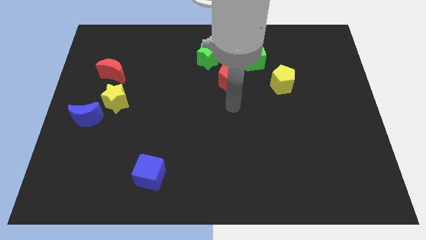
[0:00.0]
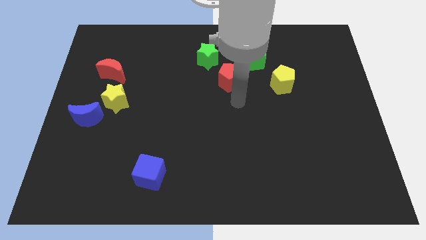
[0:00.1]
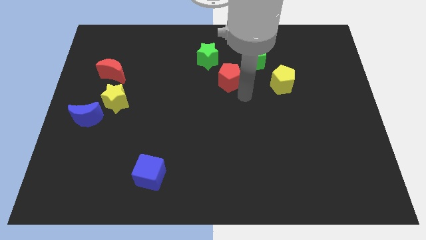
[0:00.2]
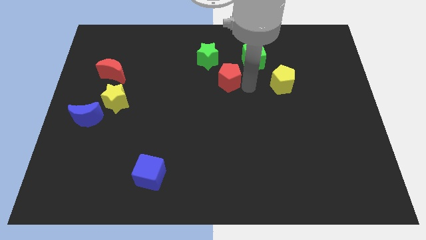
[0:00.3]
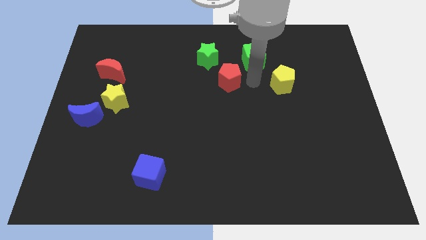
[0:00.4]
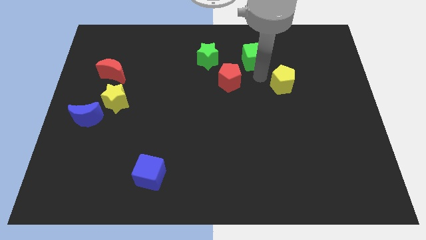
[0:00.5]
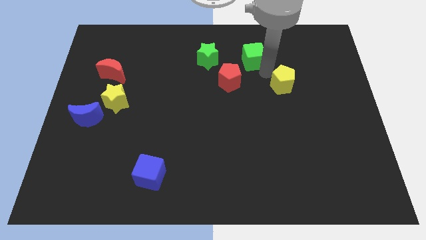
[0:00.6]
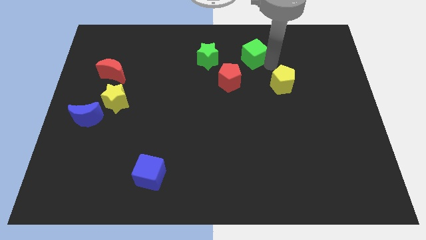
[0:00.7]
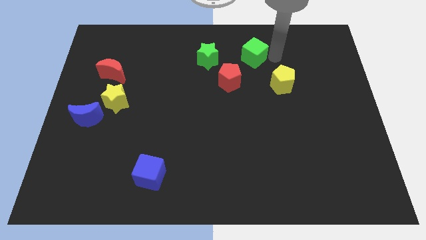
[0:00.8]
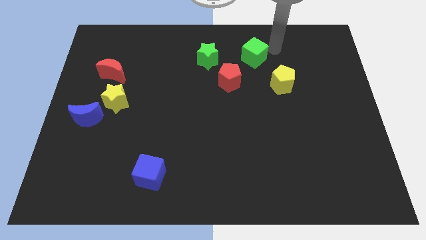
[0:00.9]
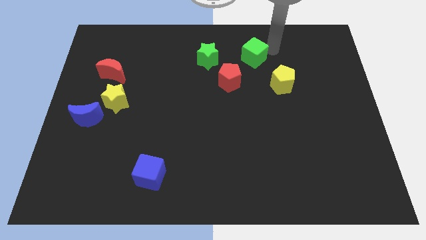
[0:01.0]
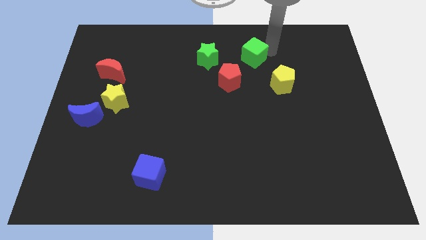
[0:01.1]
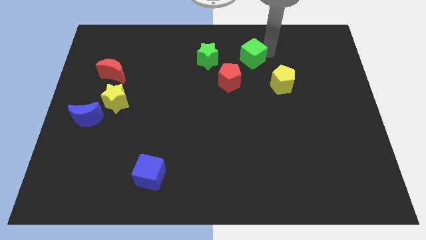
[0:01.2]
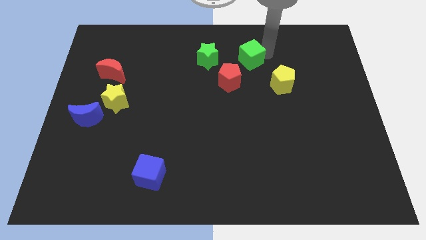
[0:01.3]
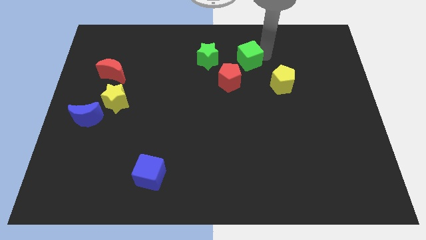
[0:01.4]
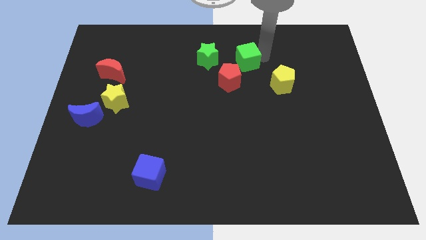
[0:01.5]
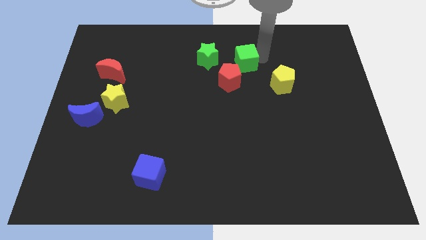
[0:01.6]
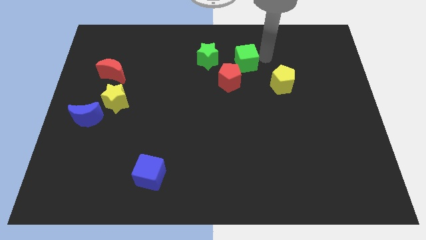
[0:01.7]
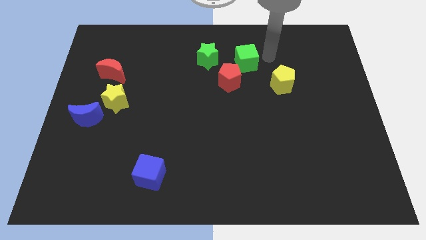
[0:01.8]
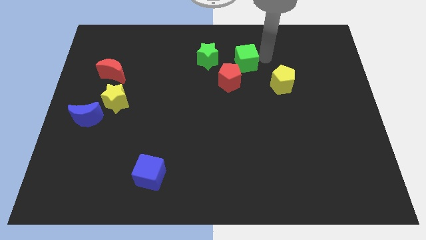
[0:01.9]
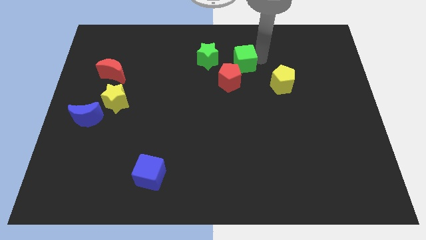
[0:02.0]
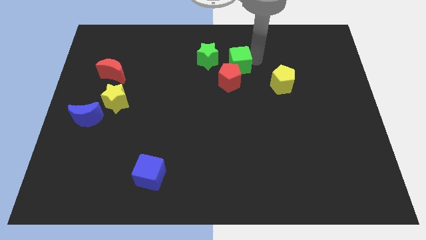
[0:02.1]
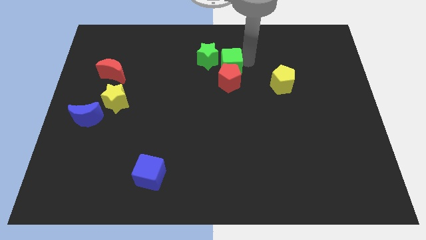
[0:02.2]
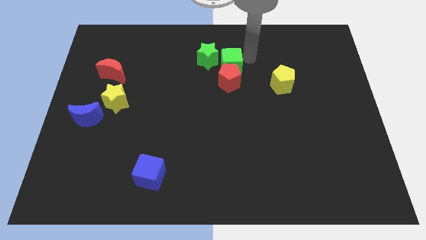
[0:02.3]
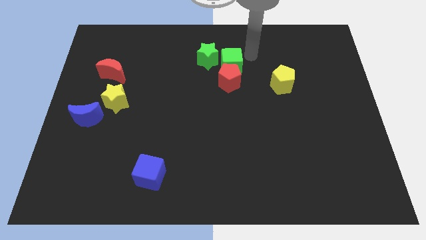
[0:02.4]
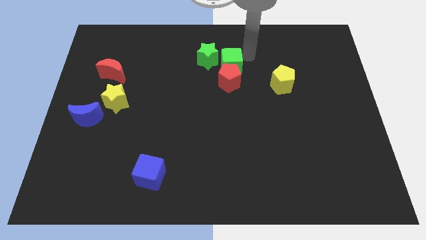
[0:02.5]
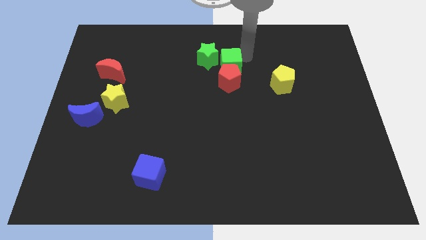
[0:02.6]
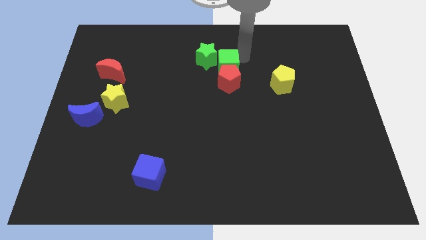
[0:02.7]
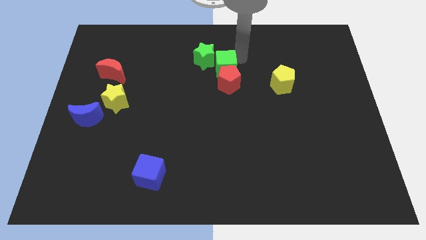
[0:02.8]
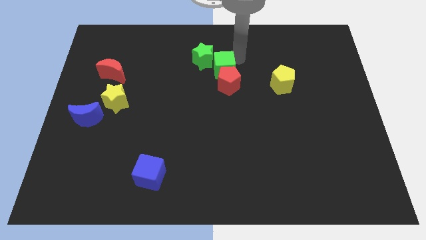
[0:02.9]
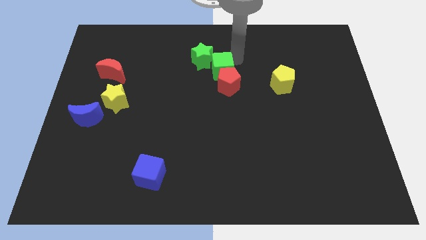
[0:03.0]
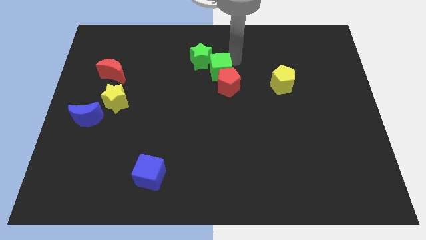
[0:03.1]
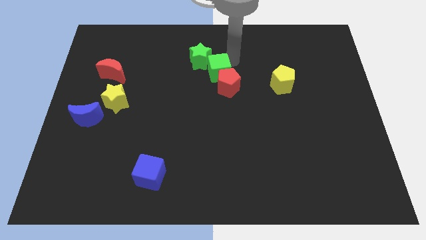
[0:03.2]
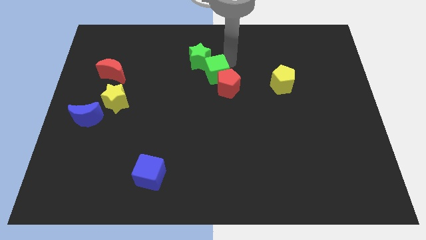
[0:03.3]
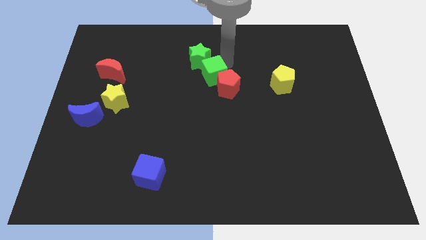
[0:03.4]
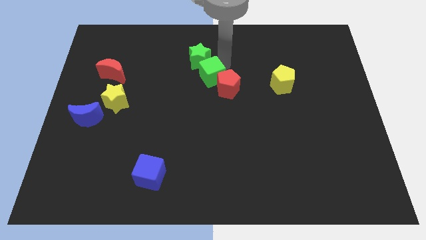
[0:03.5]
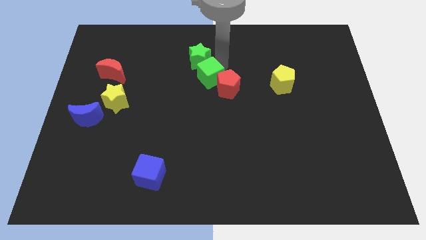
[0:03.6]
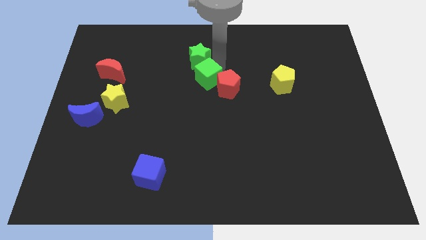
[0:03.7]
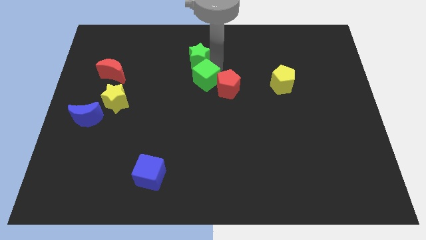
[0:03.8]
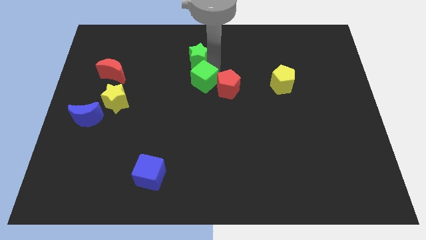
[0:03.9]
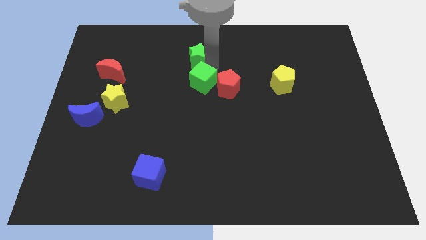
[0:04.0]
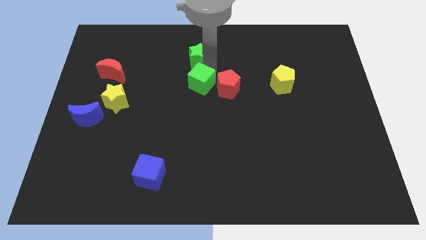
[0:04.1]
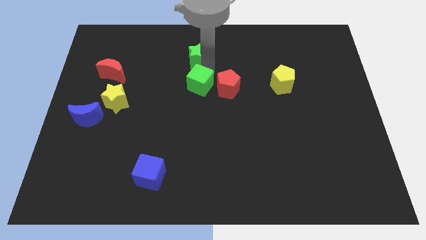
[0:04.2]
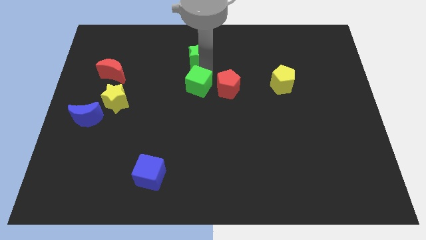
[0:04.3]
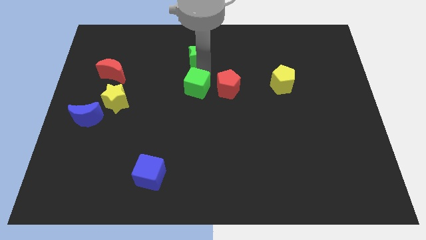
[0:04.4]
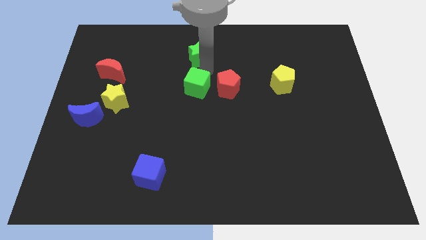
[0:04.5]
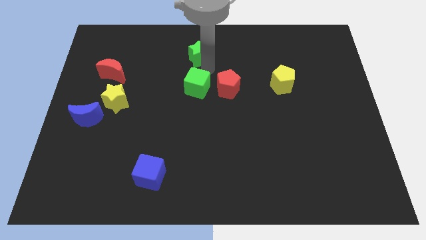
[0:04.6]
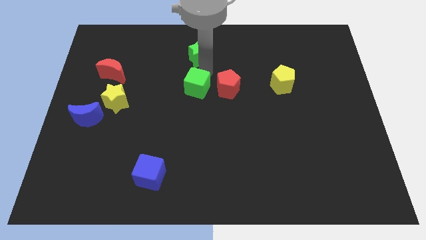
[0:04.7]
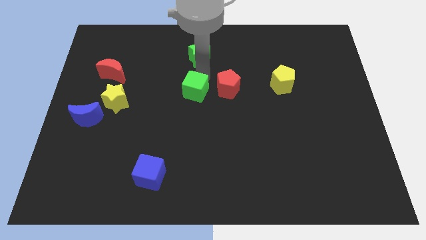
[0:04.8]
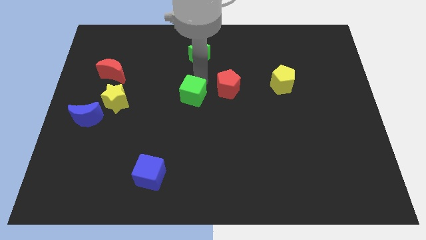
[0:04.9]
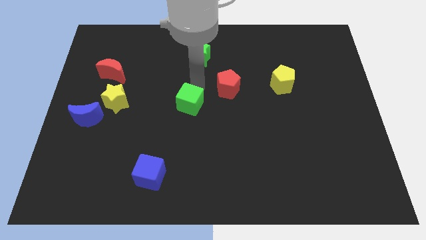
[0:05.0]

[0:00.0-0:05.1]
slide the green cube diagonally down and to the left

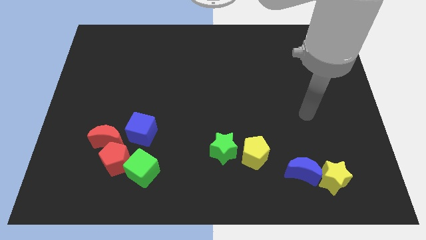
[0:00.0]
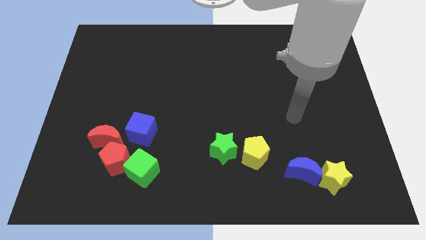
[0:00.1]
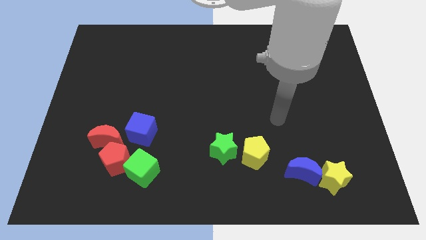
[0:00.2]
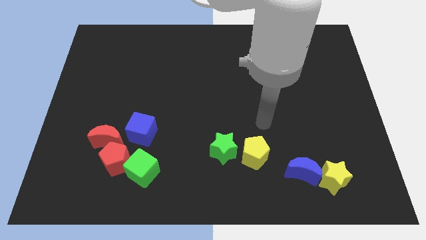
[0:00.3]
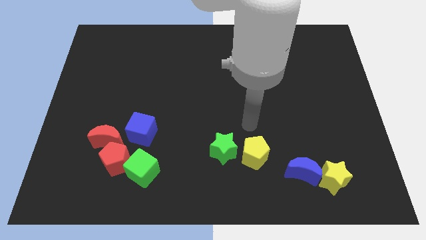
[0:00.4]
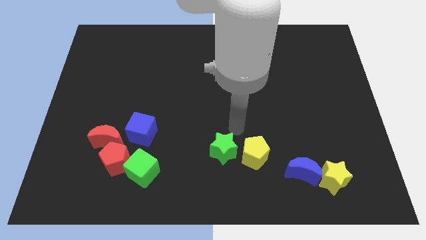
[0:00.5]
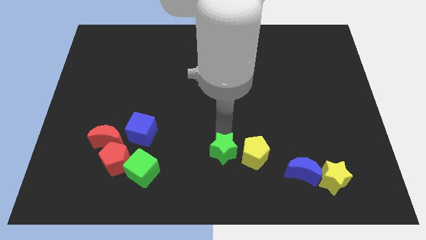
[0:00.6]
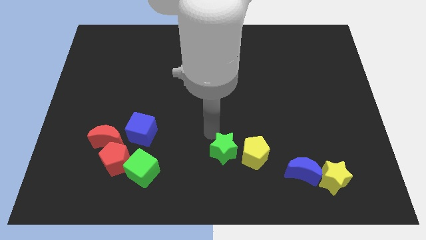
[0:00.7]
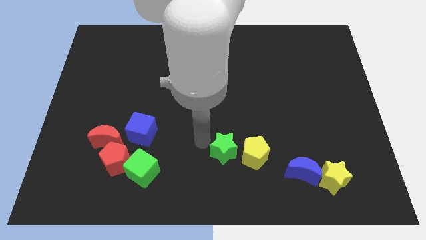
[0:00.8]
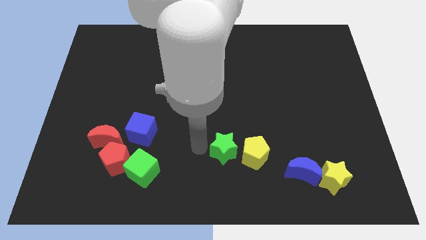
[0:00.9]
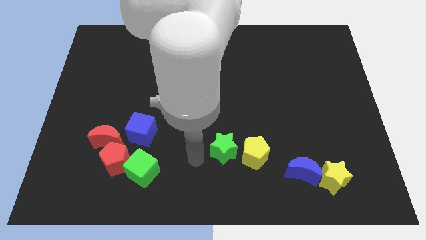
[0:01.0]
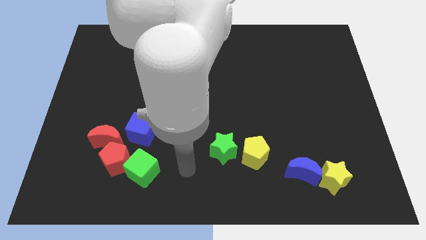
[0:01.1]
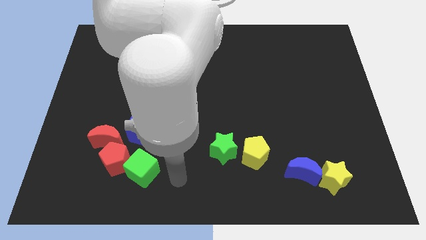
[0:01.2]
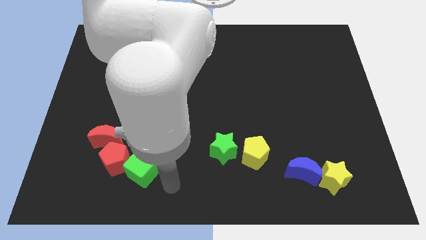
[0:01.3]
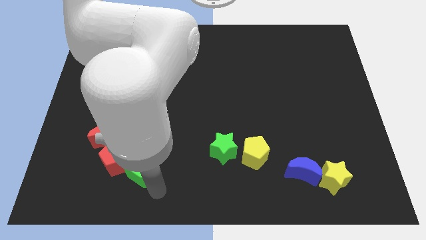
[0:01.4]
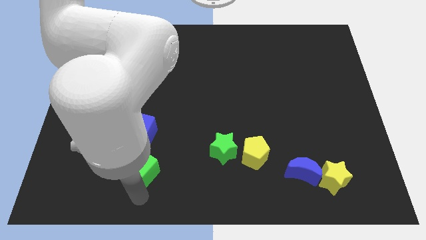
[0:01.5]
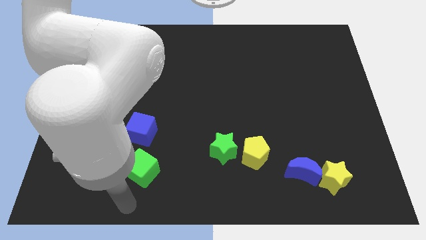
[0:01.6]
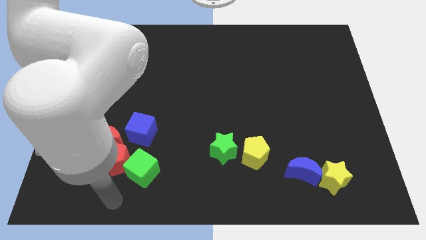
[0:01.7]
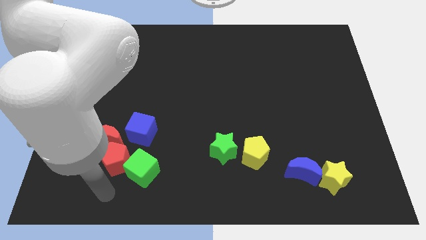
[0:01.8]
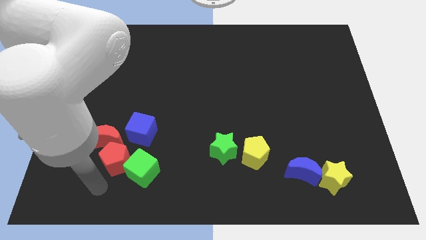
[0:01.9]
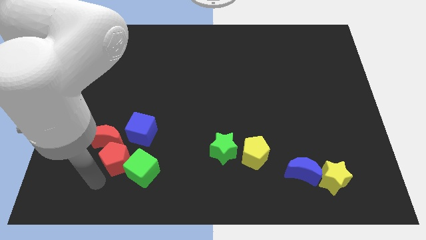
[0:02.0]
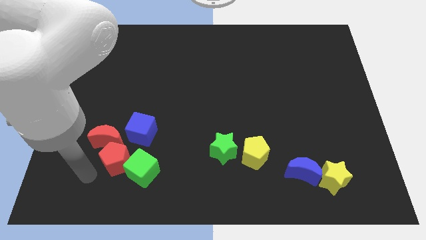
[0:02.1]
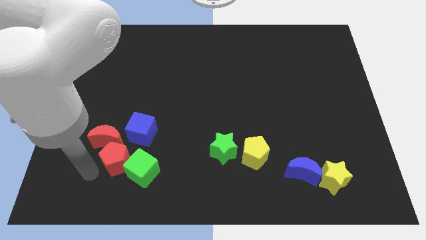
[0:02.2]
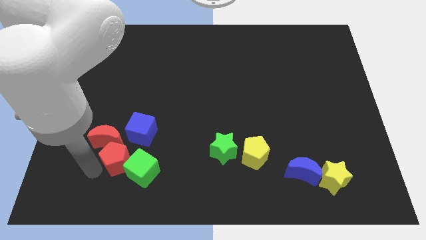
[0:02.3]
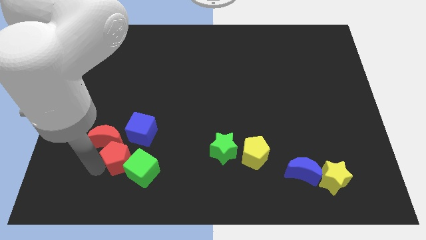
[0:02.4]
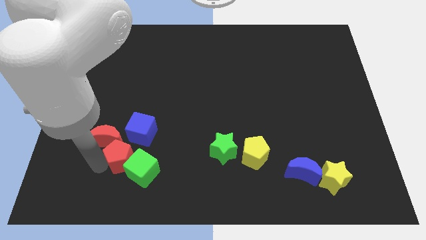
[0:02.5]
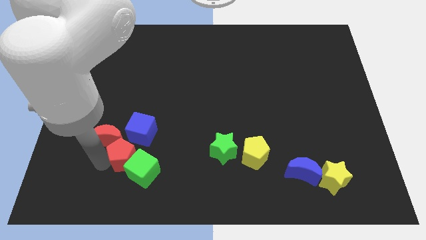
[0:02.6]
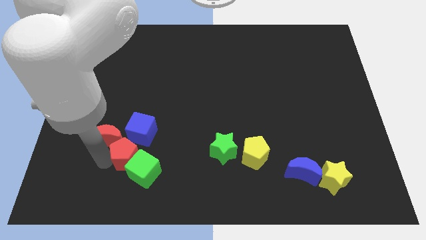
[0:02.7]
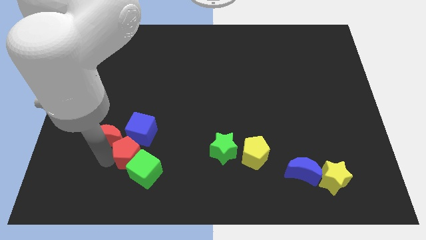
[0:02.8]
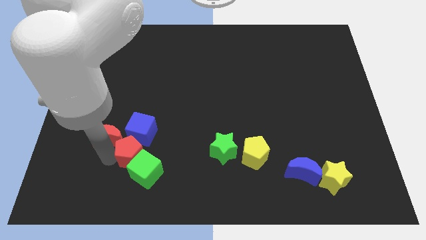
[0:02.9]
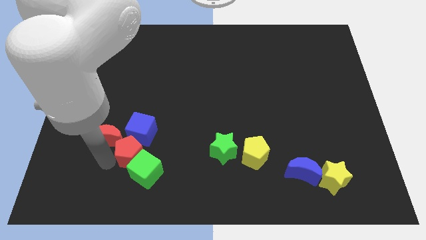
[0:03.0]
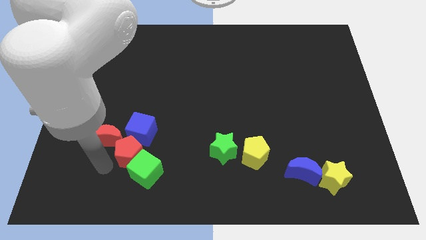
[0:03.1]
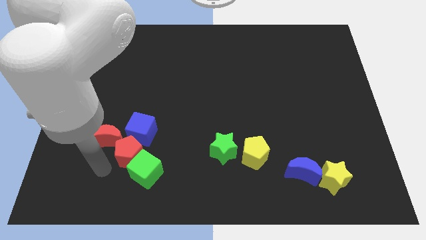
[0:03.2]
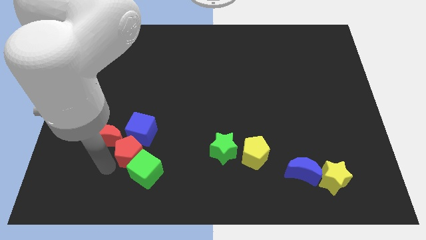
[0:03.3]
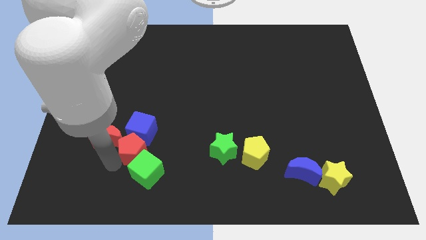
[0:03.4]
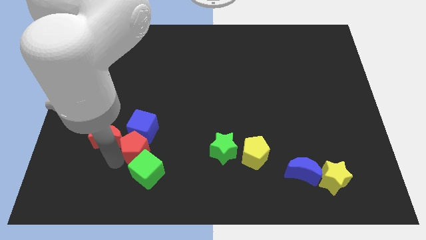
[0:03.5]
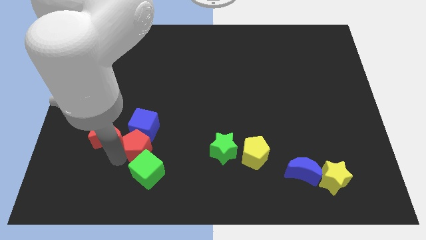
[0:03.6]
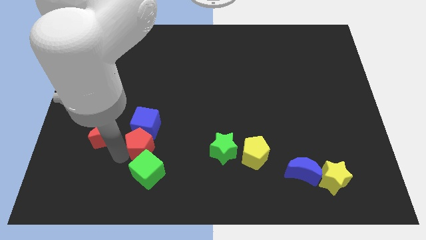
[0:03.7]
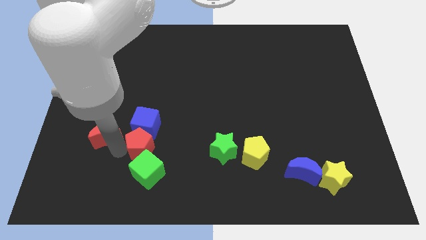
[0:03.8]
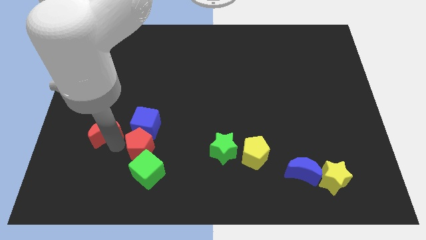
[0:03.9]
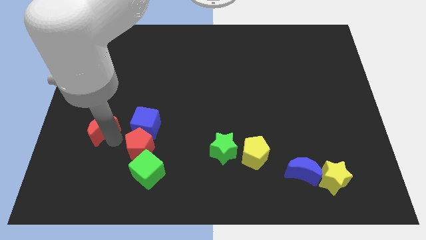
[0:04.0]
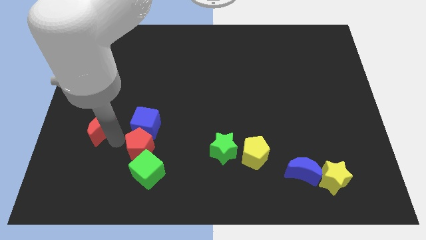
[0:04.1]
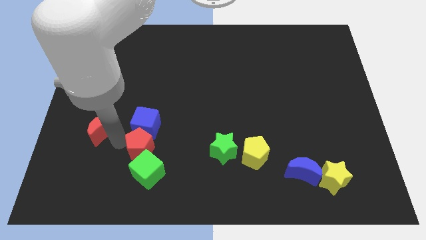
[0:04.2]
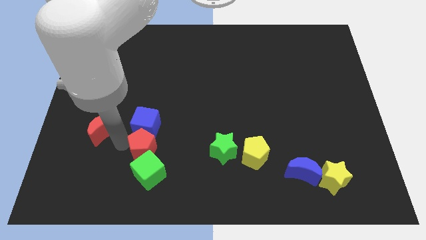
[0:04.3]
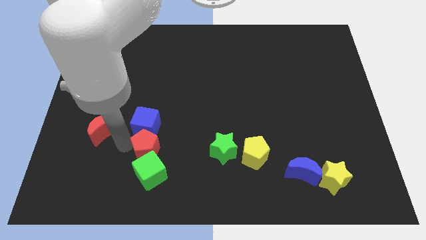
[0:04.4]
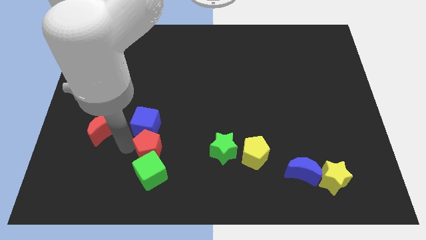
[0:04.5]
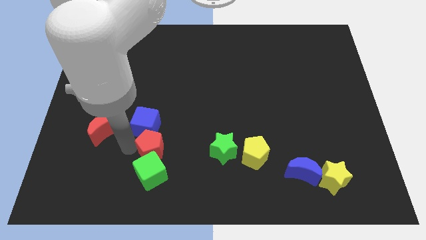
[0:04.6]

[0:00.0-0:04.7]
slide the red pentagon somewhat right
